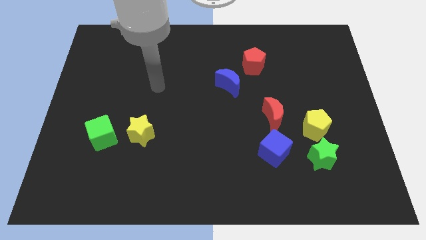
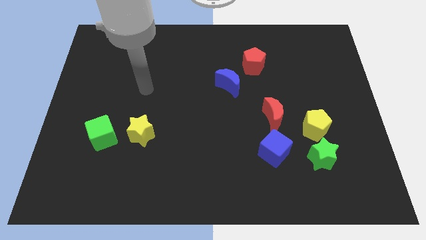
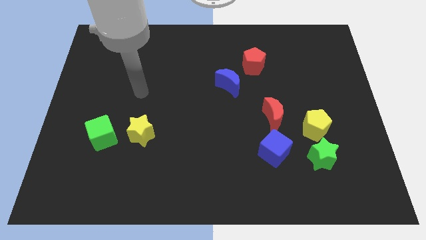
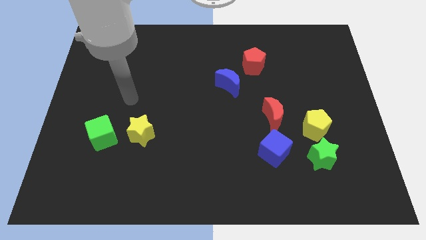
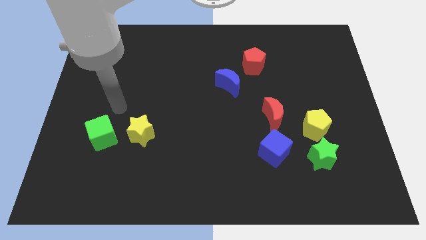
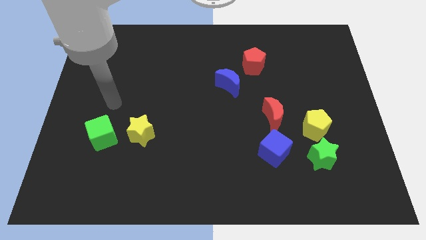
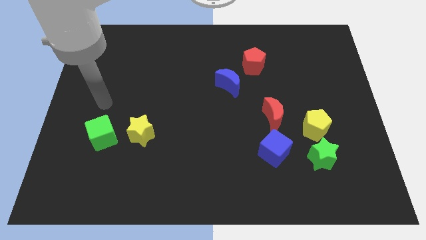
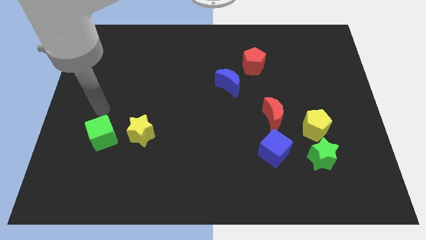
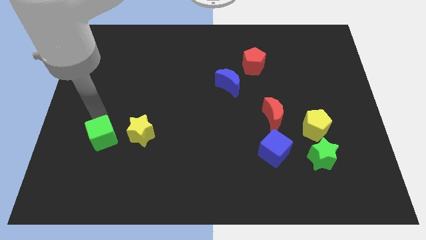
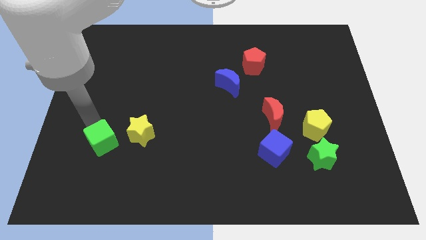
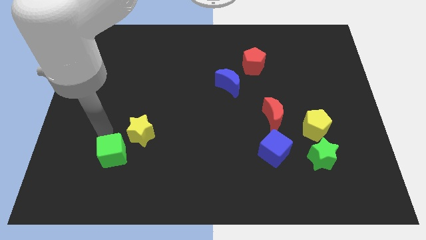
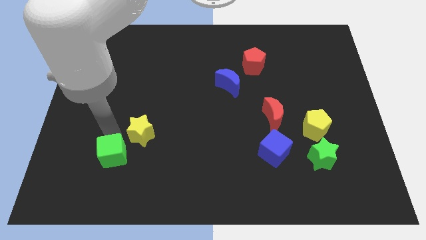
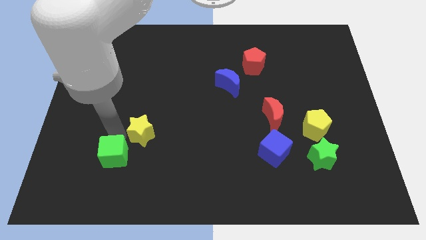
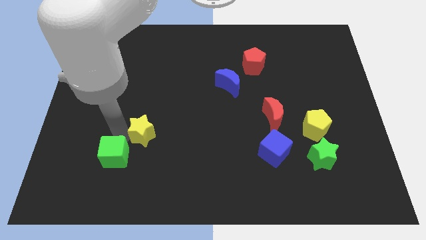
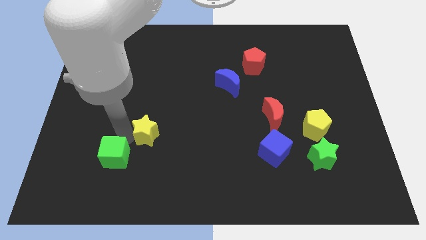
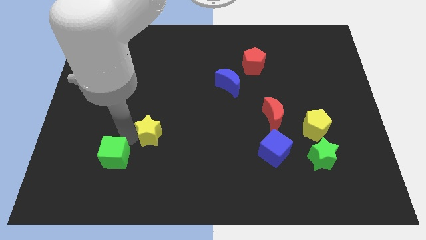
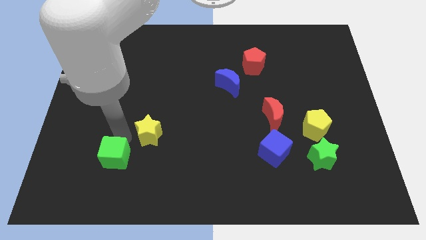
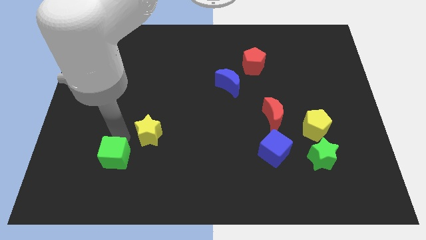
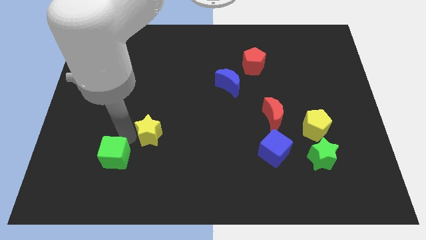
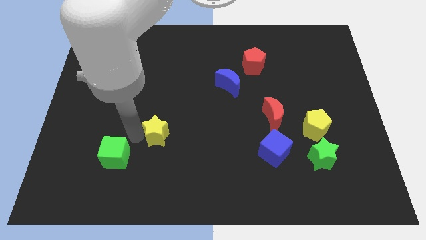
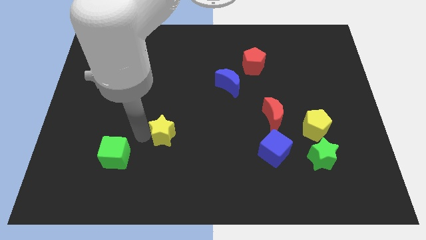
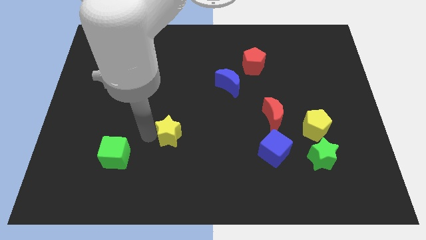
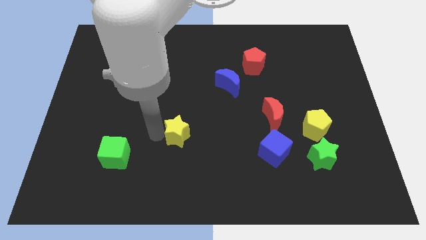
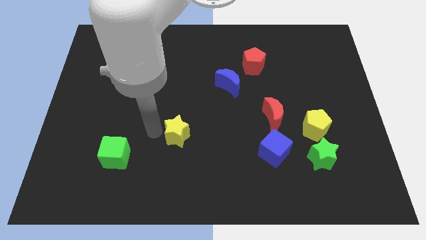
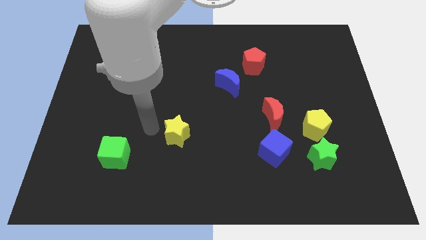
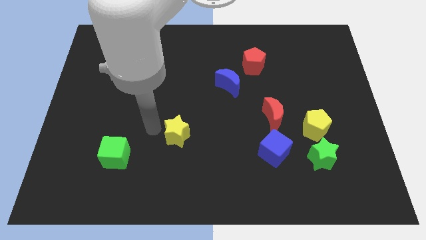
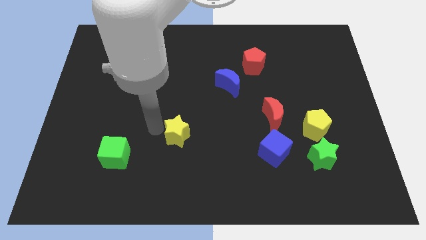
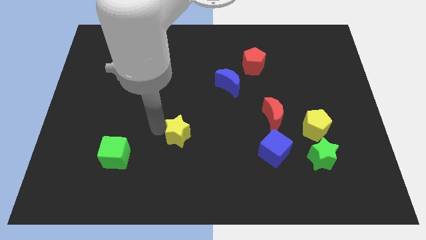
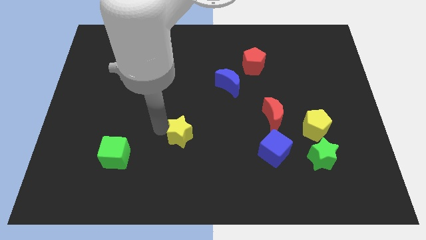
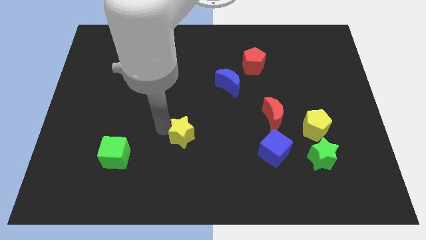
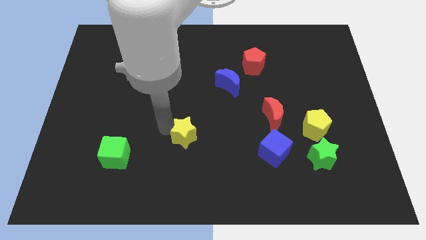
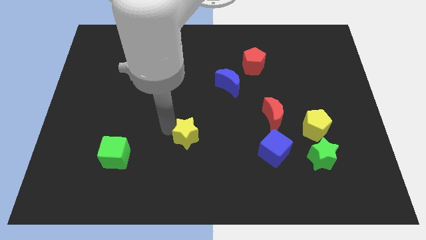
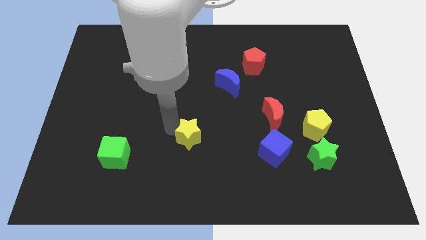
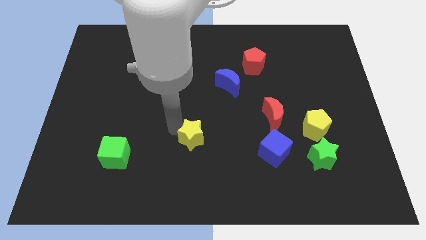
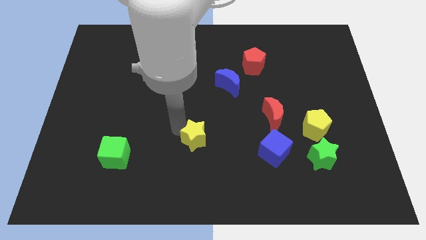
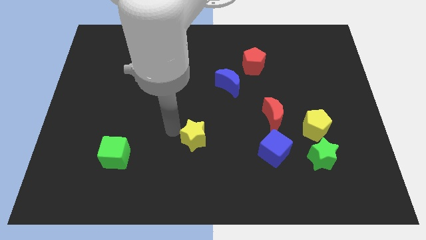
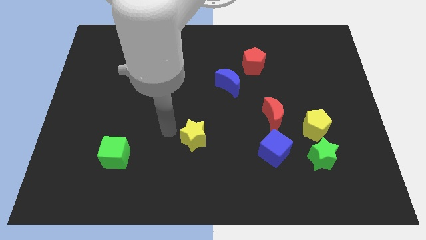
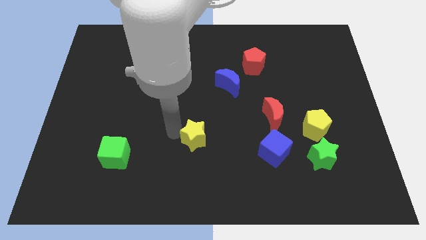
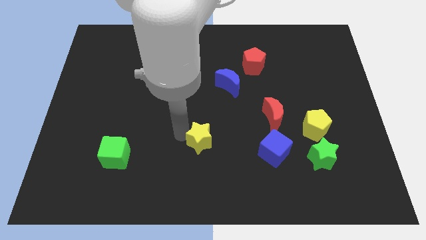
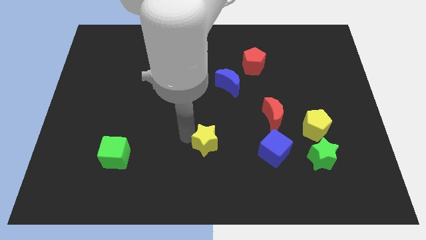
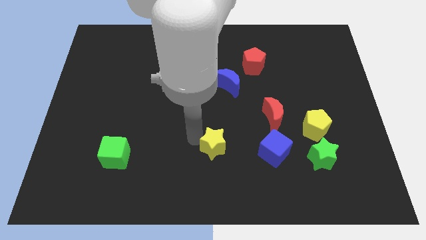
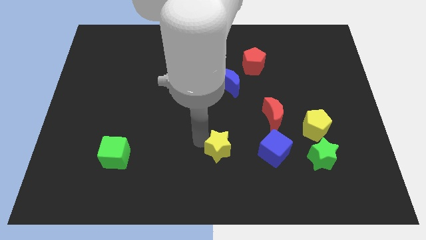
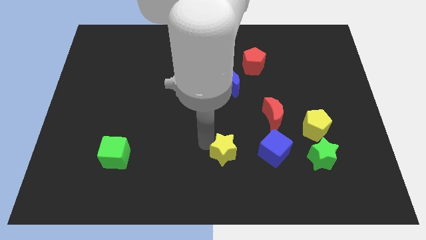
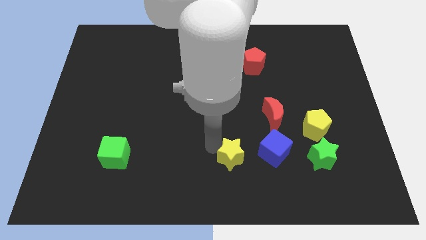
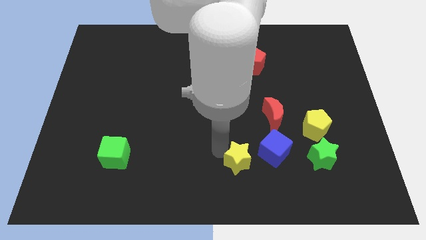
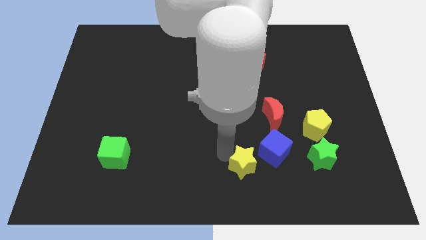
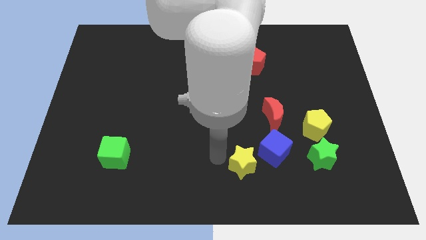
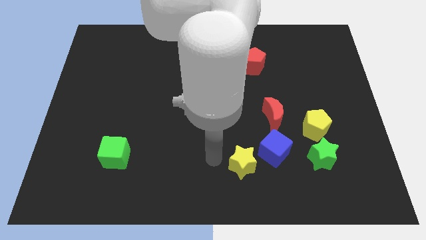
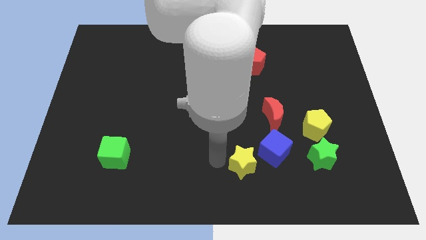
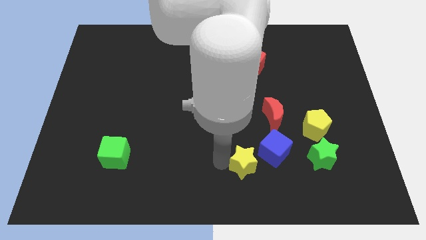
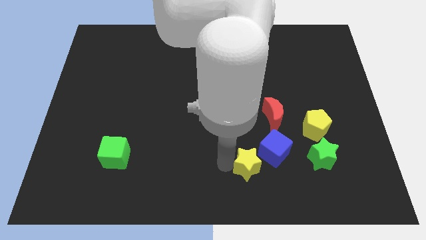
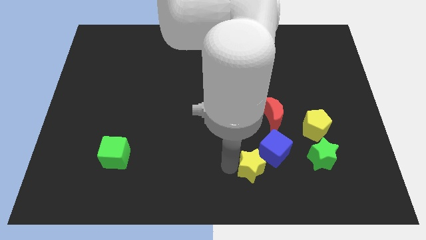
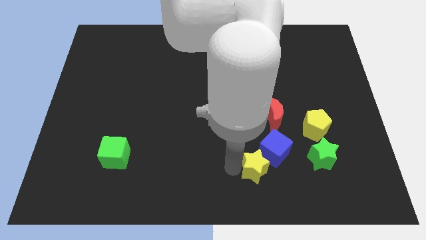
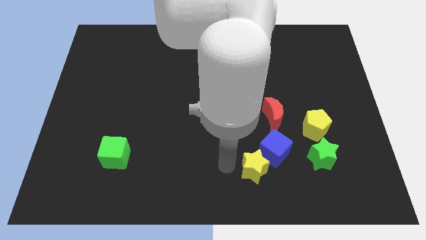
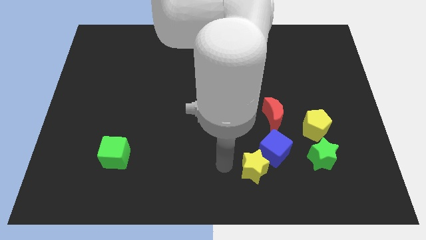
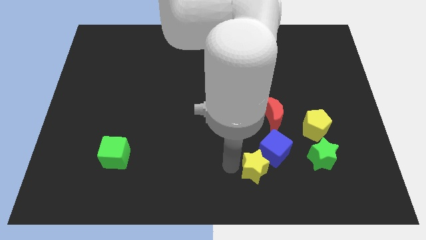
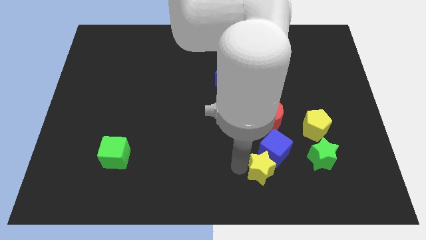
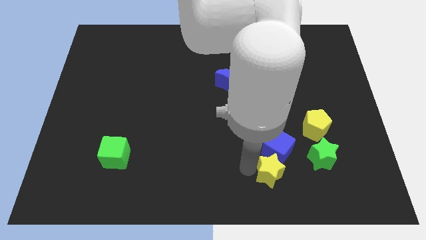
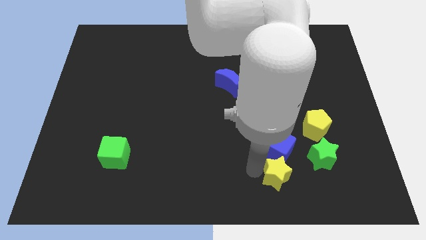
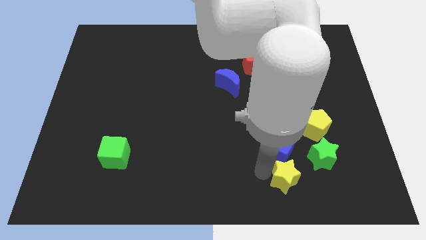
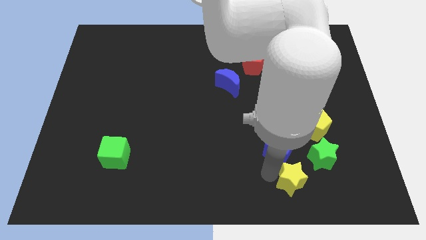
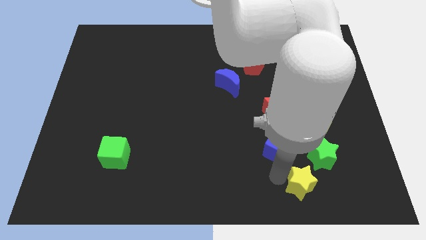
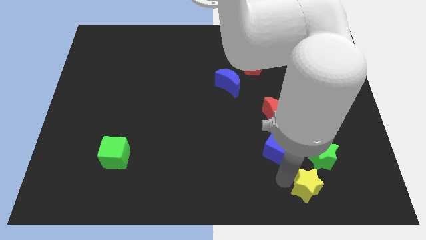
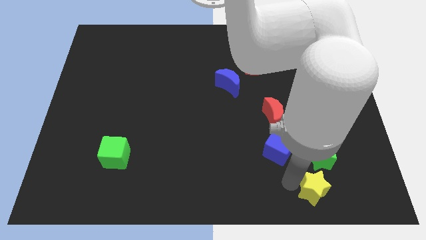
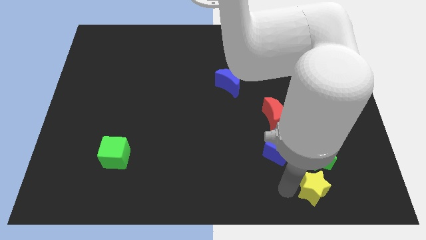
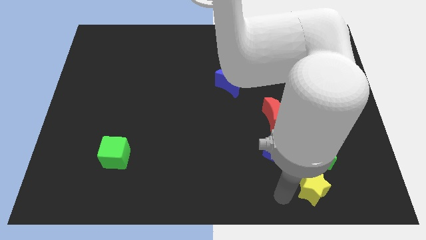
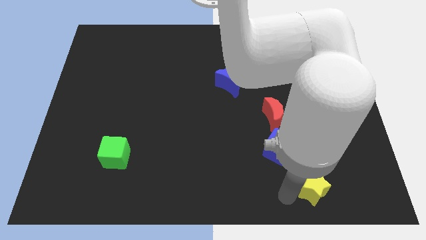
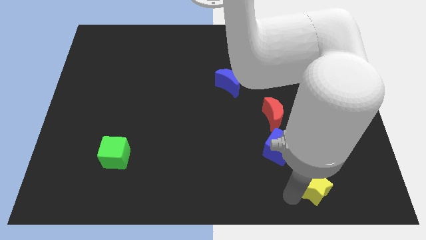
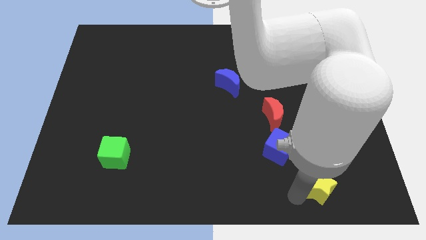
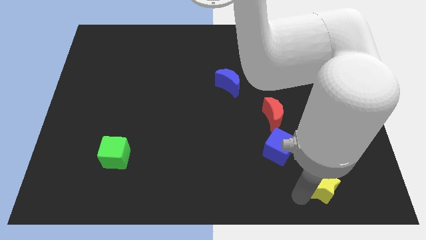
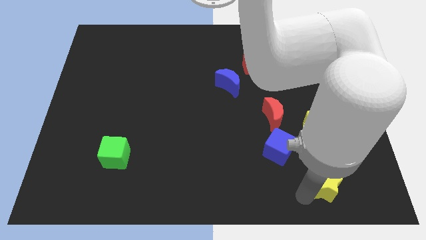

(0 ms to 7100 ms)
put the yellow star diagonally down and to the right of the green star
